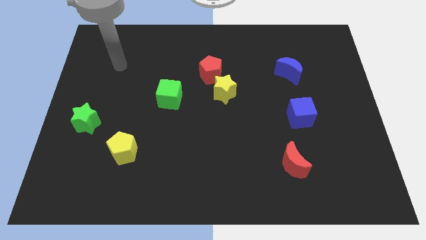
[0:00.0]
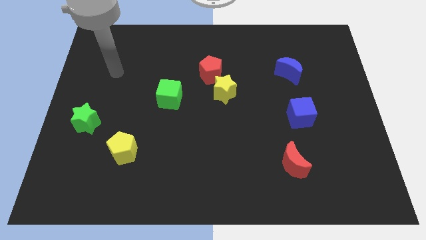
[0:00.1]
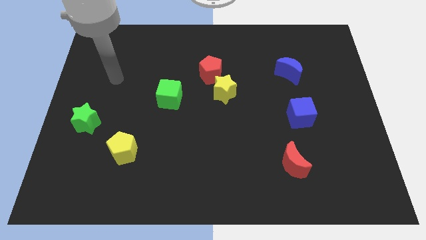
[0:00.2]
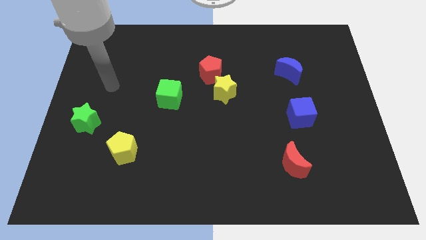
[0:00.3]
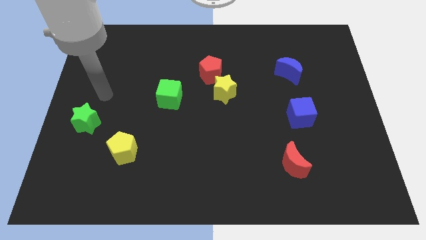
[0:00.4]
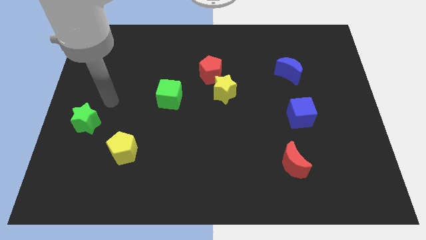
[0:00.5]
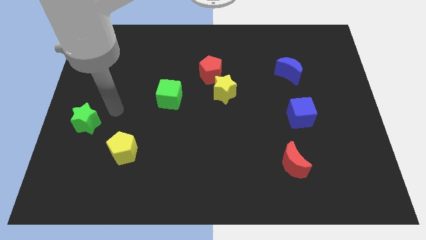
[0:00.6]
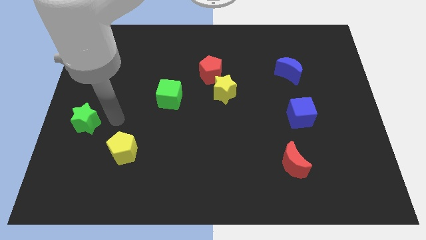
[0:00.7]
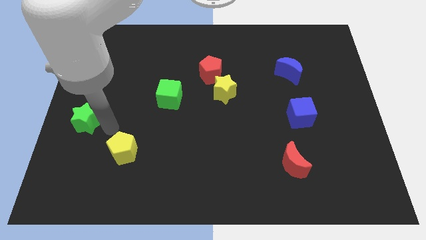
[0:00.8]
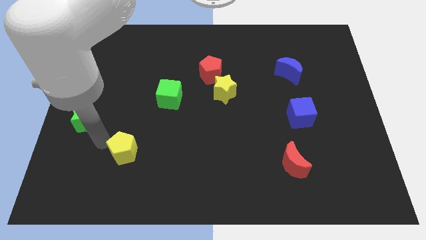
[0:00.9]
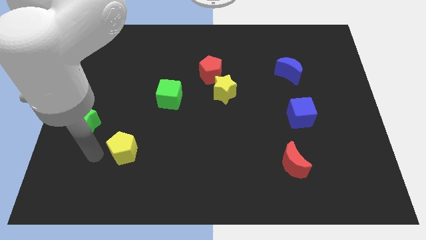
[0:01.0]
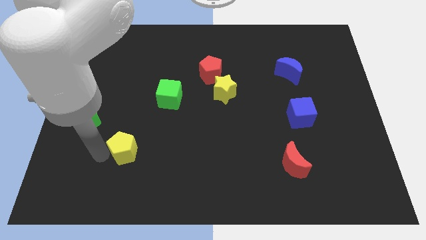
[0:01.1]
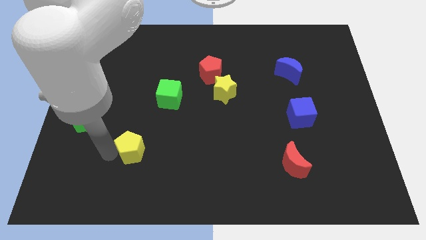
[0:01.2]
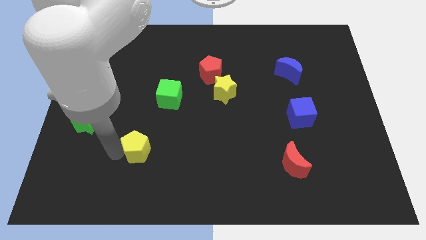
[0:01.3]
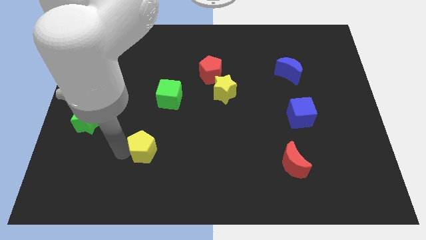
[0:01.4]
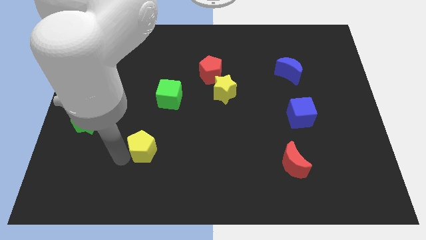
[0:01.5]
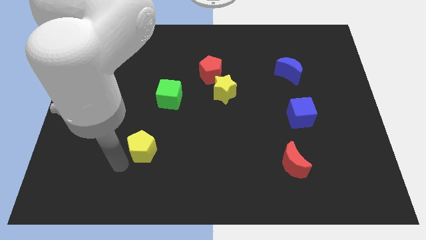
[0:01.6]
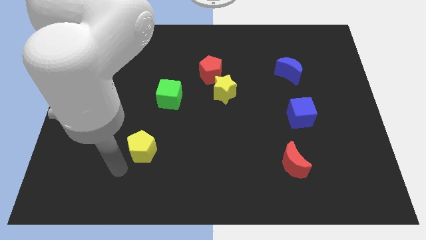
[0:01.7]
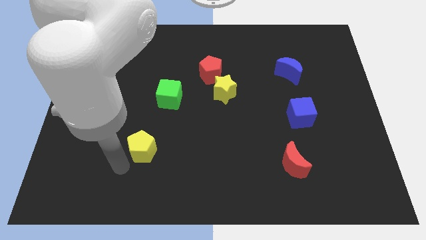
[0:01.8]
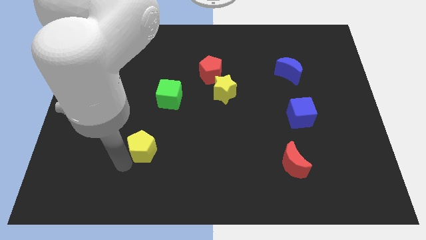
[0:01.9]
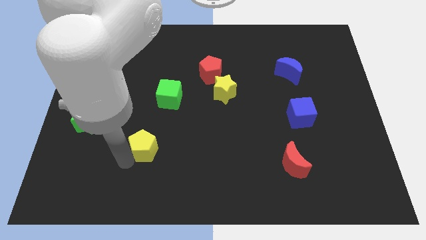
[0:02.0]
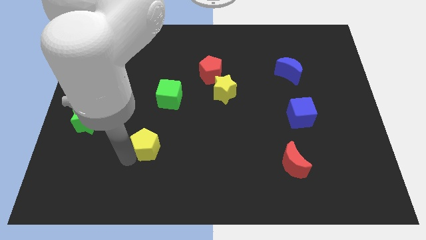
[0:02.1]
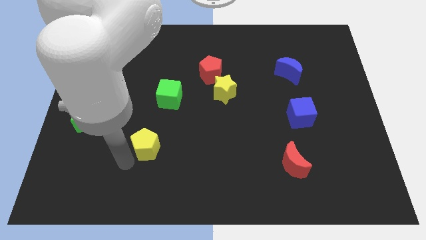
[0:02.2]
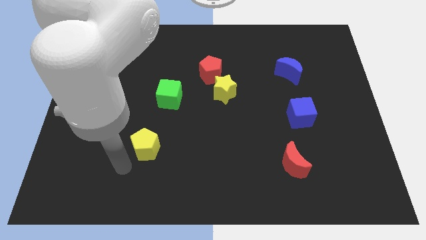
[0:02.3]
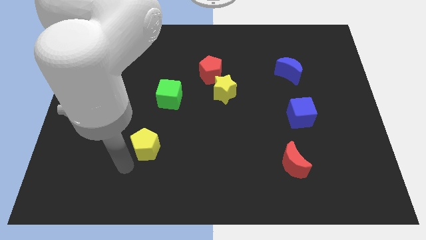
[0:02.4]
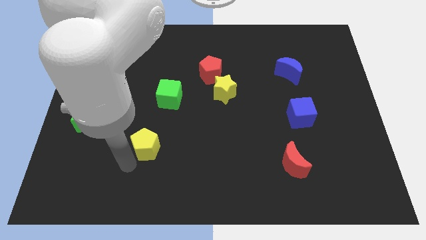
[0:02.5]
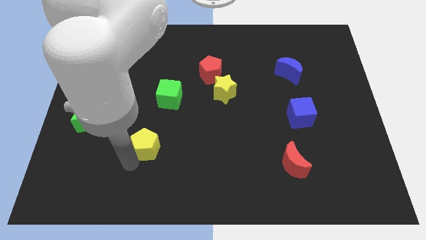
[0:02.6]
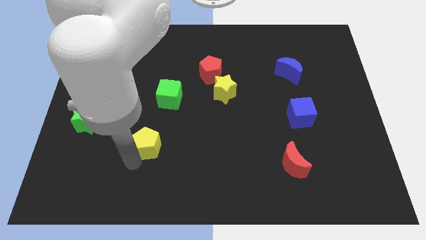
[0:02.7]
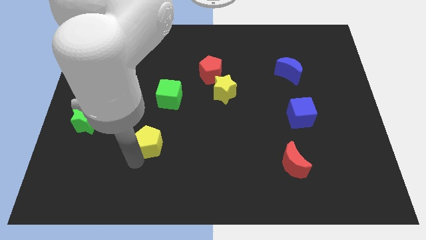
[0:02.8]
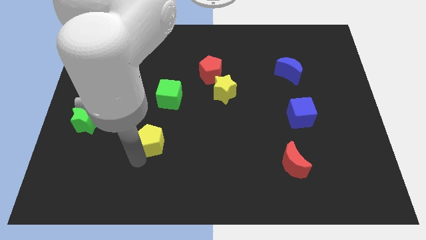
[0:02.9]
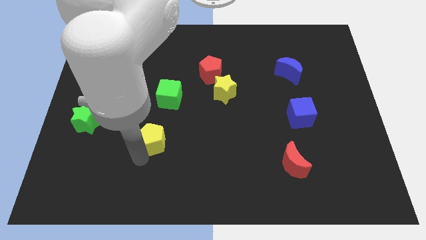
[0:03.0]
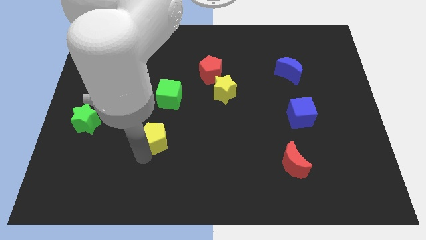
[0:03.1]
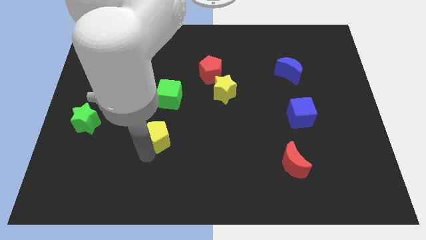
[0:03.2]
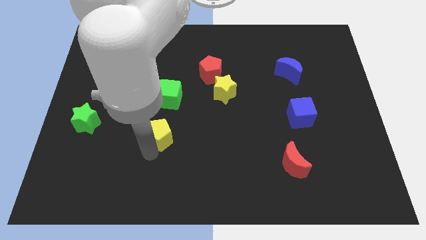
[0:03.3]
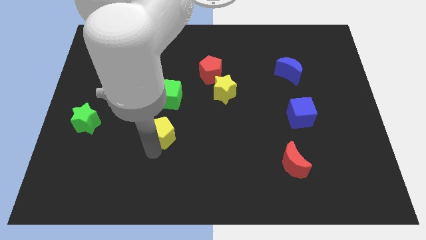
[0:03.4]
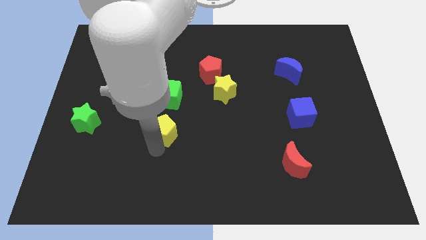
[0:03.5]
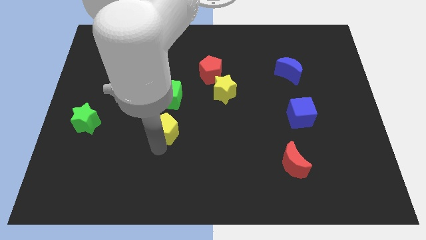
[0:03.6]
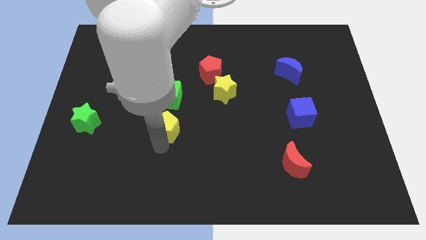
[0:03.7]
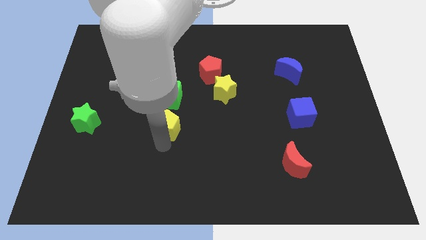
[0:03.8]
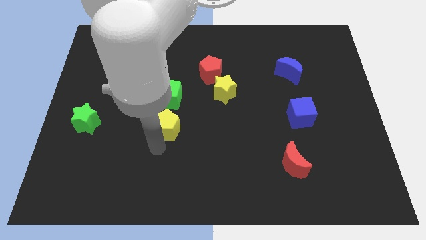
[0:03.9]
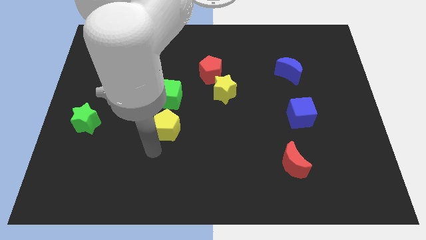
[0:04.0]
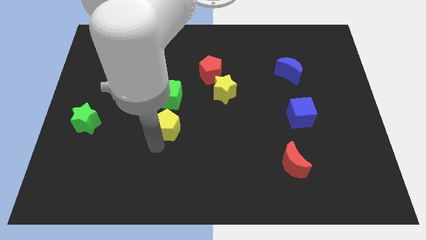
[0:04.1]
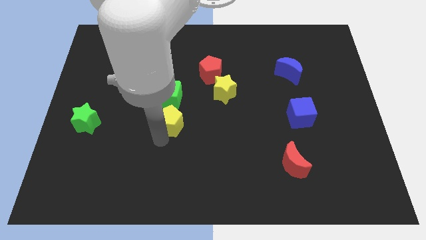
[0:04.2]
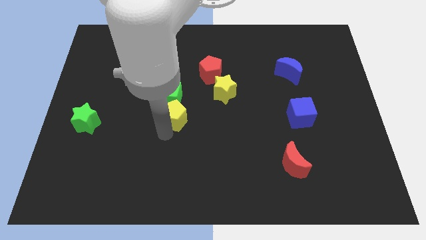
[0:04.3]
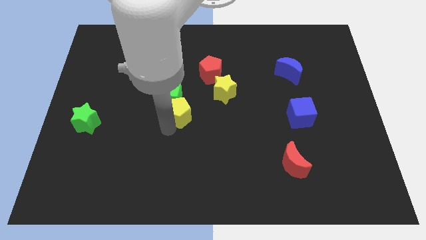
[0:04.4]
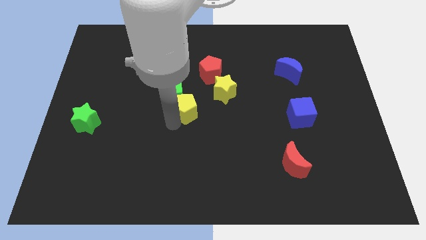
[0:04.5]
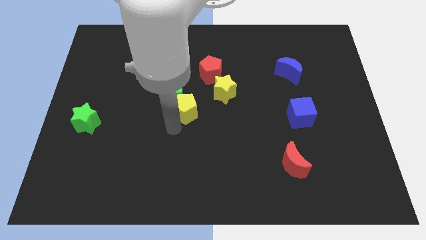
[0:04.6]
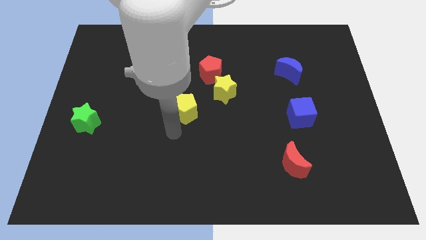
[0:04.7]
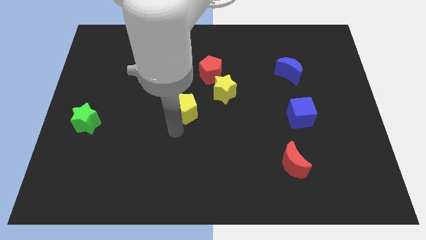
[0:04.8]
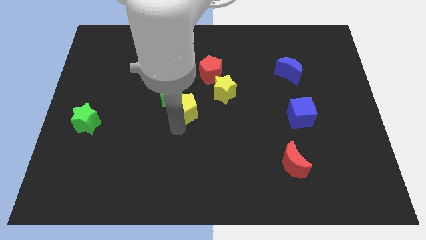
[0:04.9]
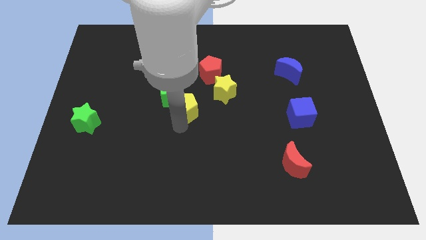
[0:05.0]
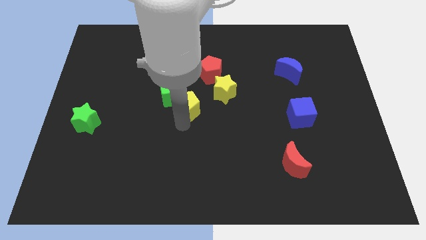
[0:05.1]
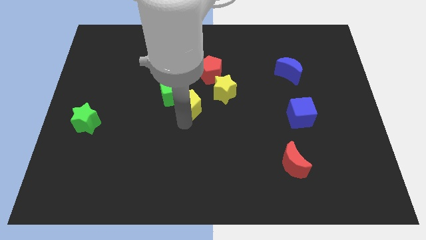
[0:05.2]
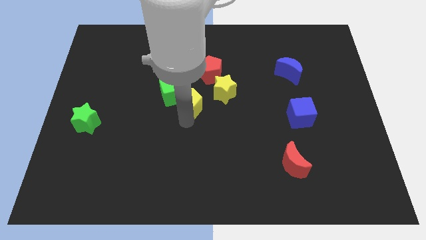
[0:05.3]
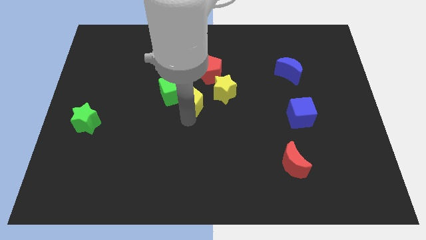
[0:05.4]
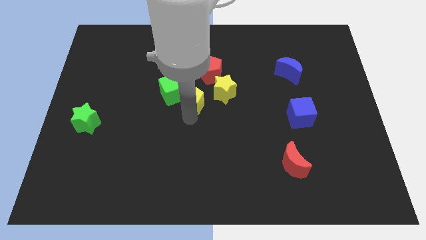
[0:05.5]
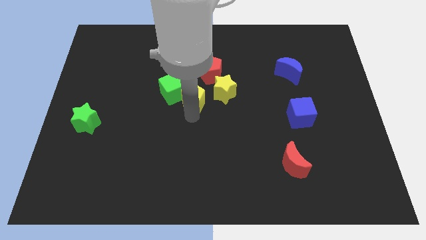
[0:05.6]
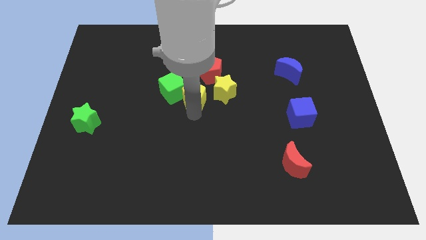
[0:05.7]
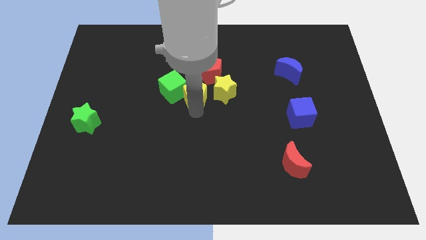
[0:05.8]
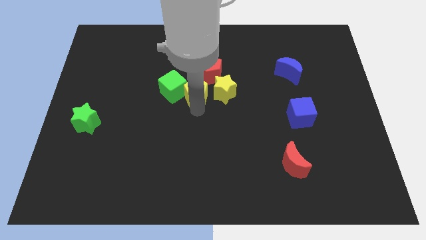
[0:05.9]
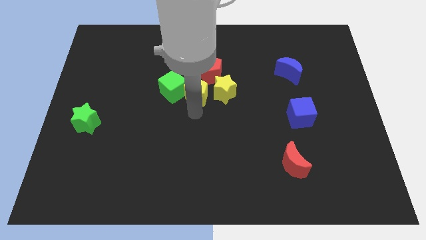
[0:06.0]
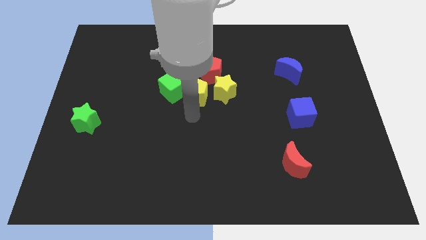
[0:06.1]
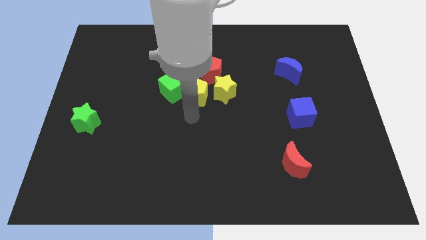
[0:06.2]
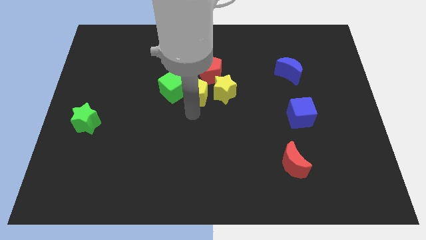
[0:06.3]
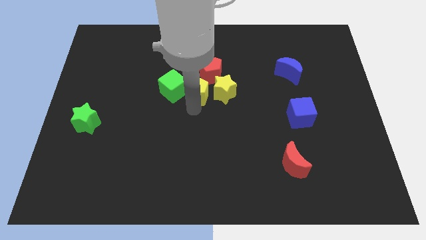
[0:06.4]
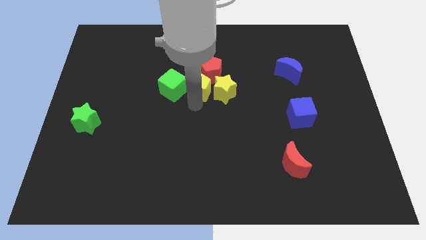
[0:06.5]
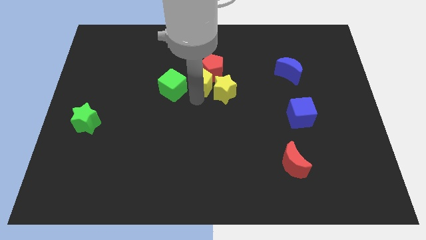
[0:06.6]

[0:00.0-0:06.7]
put the yellow pentagon close to the red pentagon
